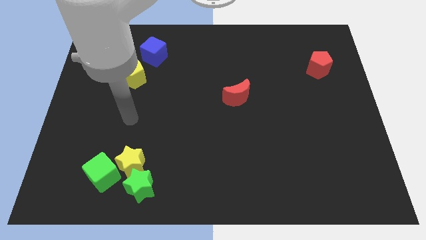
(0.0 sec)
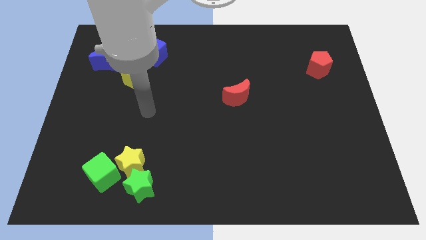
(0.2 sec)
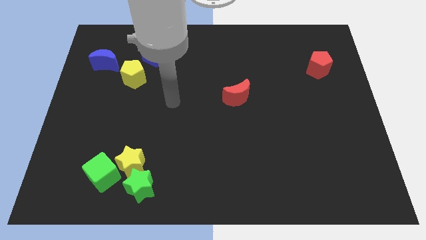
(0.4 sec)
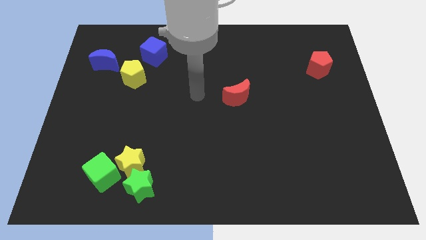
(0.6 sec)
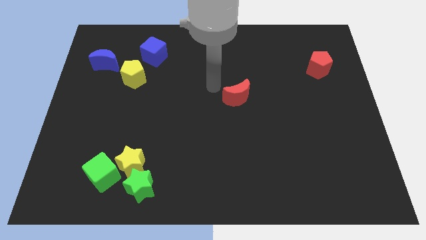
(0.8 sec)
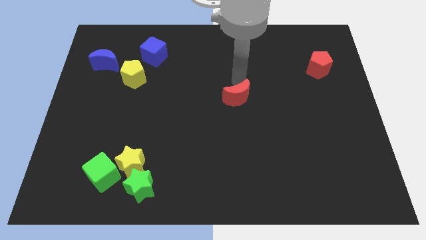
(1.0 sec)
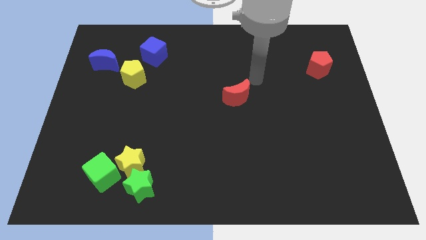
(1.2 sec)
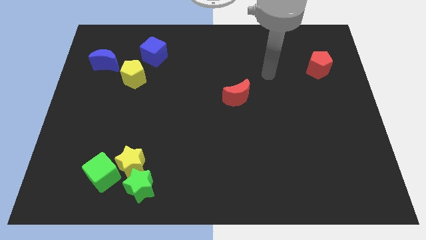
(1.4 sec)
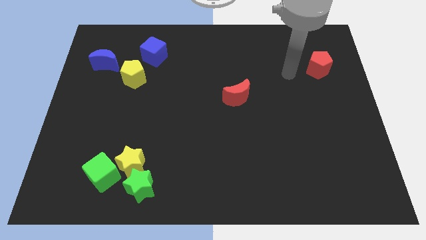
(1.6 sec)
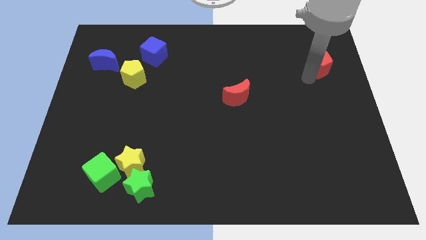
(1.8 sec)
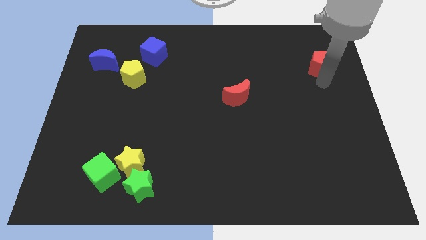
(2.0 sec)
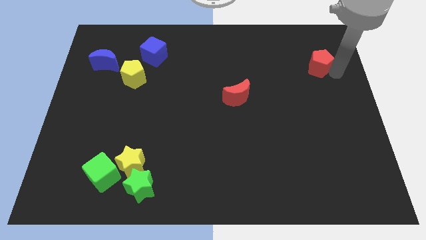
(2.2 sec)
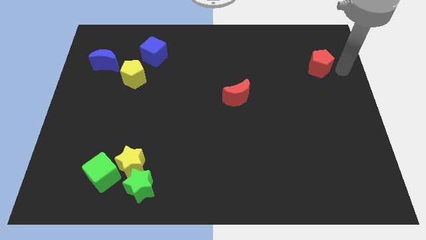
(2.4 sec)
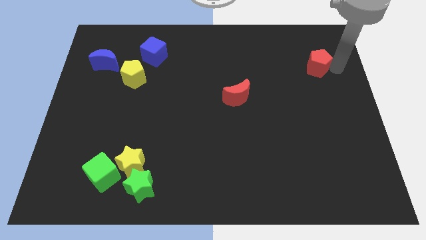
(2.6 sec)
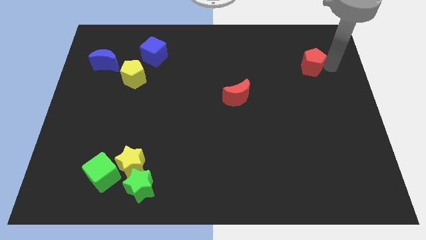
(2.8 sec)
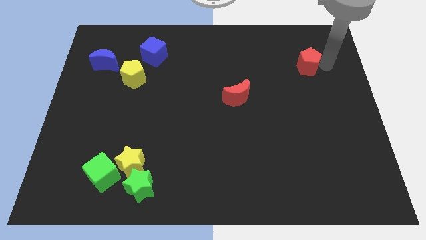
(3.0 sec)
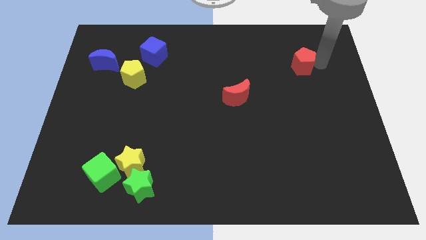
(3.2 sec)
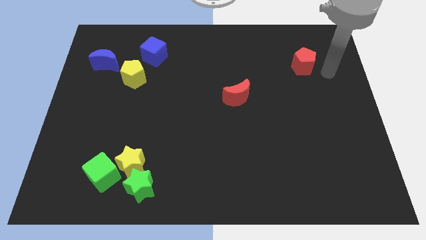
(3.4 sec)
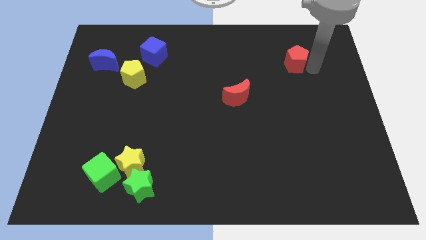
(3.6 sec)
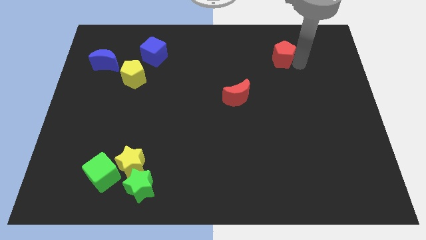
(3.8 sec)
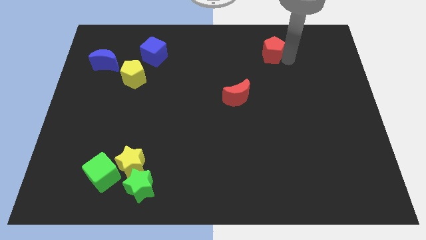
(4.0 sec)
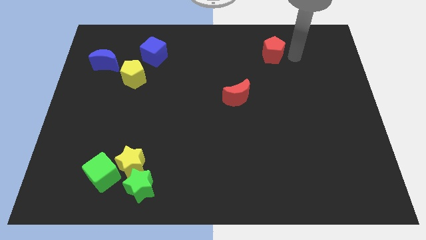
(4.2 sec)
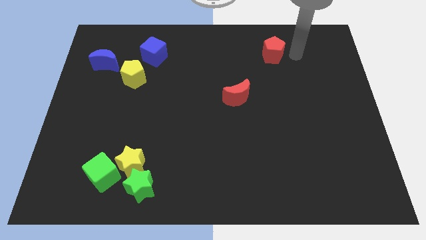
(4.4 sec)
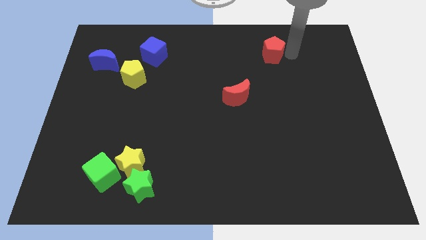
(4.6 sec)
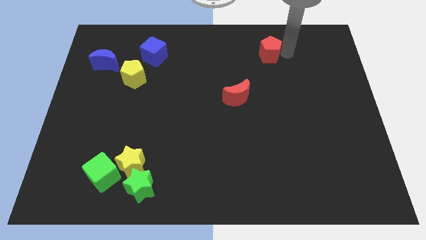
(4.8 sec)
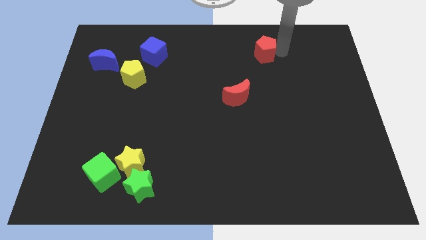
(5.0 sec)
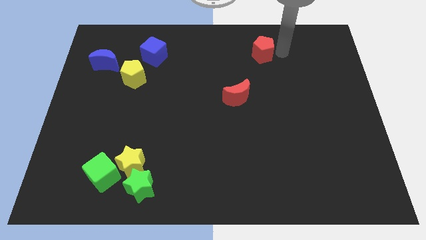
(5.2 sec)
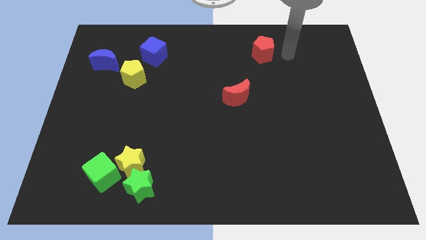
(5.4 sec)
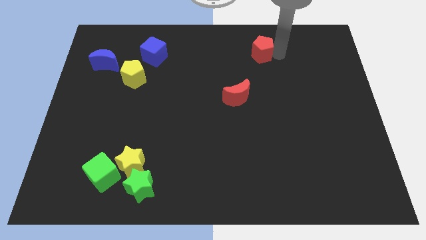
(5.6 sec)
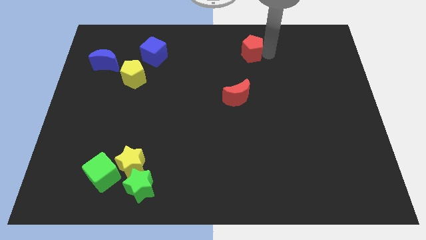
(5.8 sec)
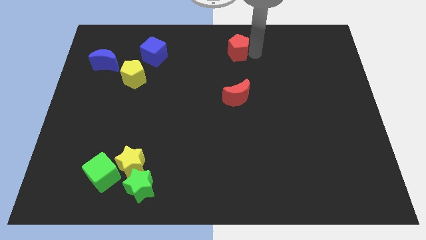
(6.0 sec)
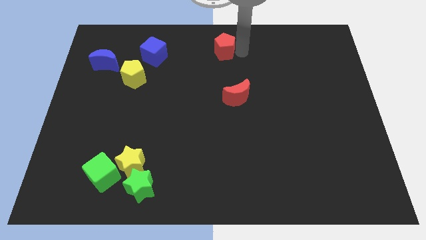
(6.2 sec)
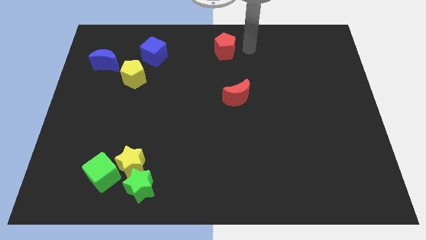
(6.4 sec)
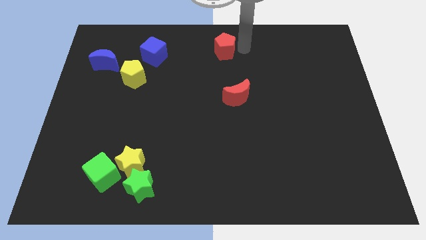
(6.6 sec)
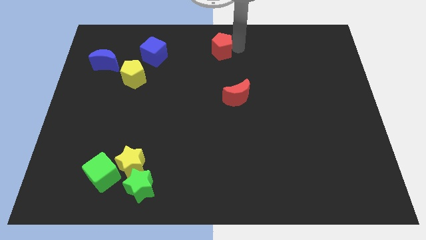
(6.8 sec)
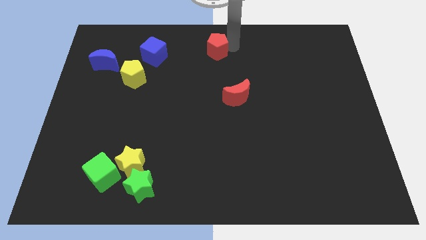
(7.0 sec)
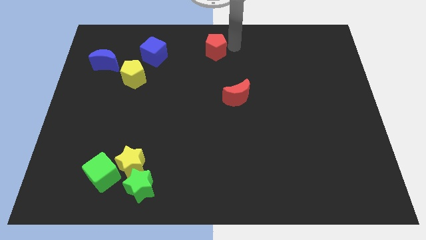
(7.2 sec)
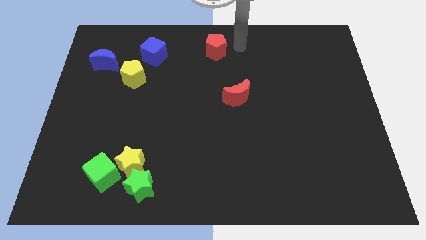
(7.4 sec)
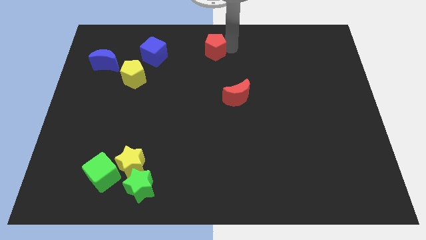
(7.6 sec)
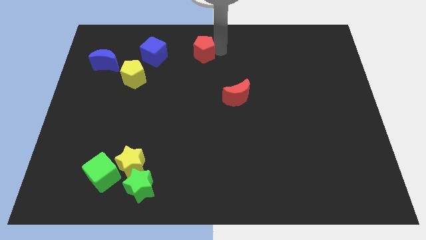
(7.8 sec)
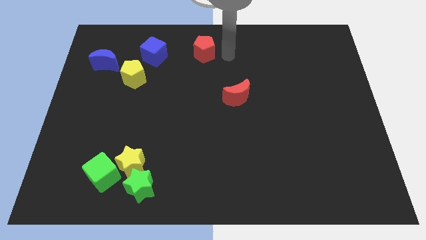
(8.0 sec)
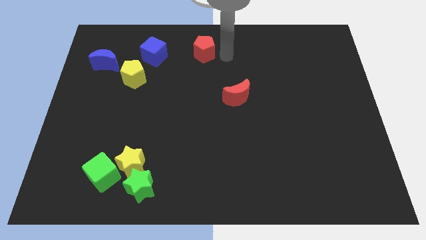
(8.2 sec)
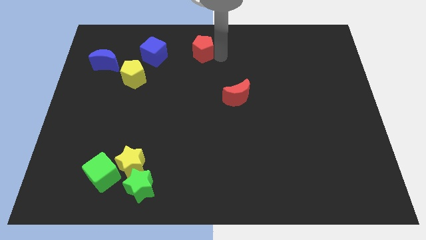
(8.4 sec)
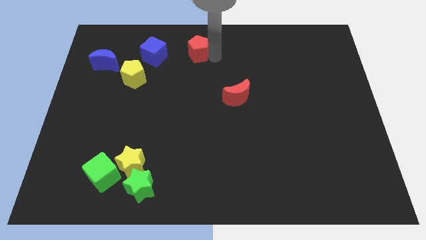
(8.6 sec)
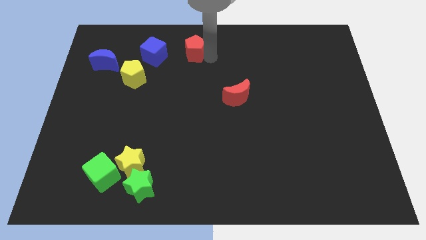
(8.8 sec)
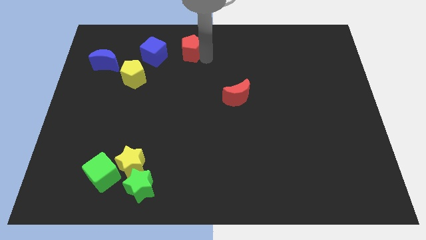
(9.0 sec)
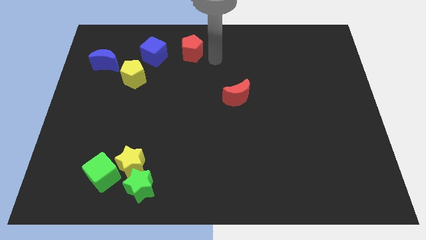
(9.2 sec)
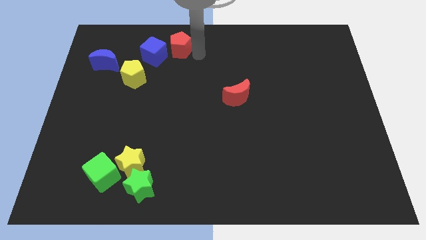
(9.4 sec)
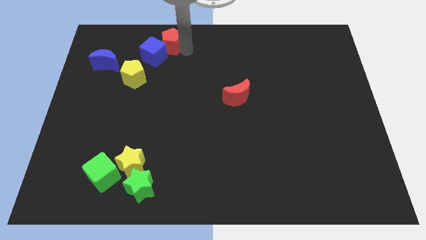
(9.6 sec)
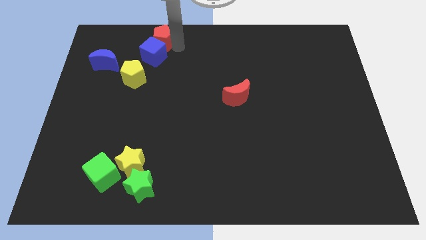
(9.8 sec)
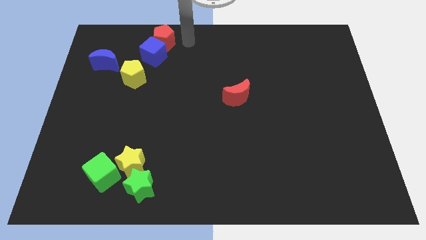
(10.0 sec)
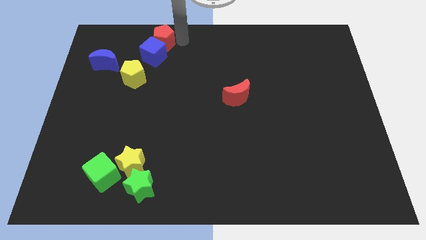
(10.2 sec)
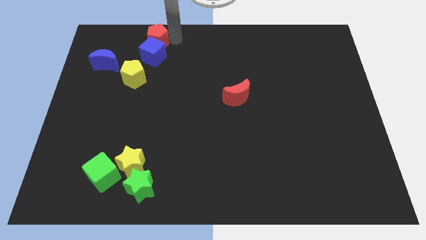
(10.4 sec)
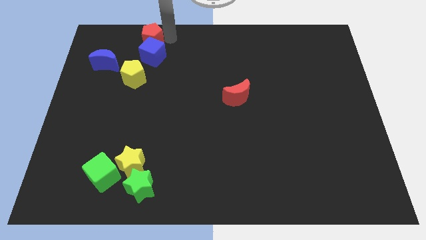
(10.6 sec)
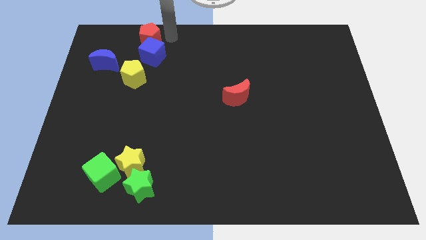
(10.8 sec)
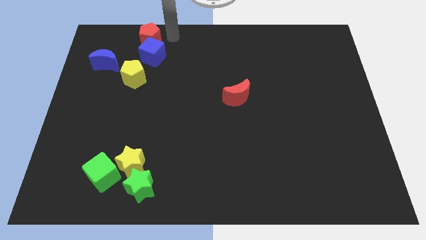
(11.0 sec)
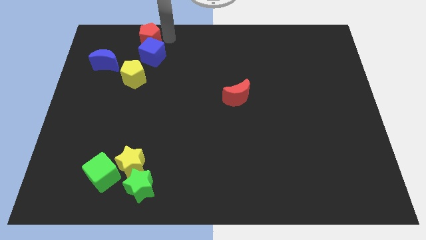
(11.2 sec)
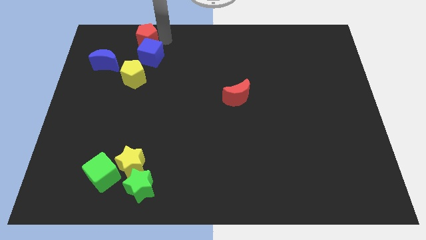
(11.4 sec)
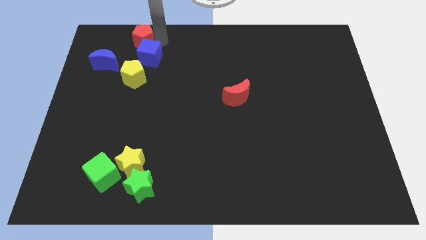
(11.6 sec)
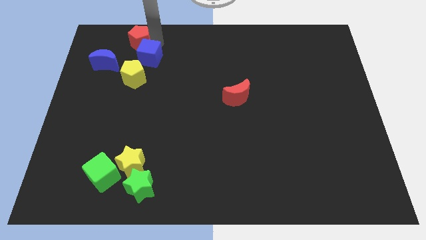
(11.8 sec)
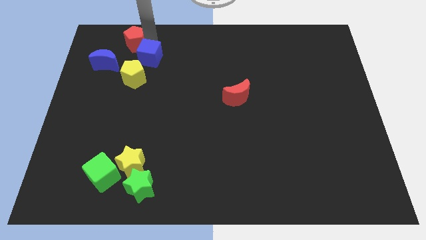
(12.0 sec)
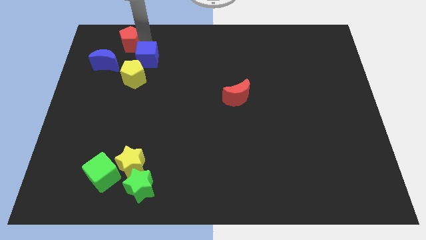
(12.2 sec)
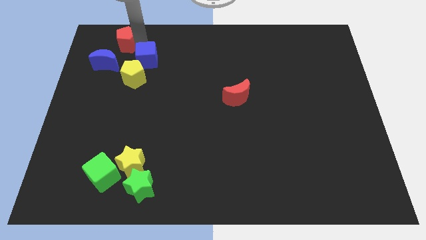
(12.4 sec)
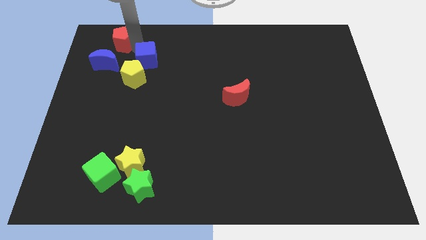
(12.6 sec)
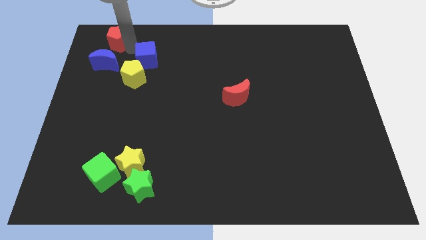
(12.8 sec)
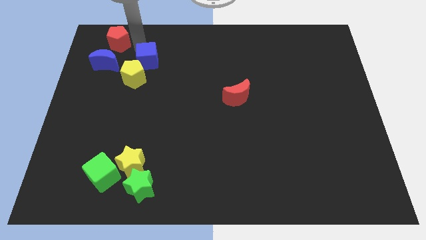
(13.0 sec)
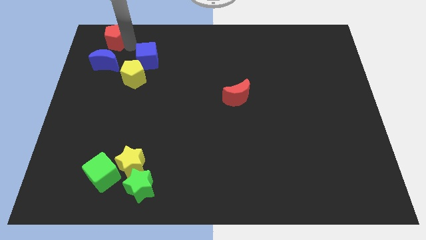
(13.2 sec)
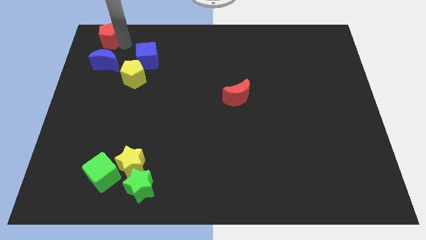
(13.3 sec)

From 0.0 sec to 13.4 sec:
move the red pentagon to the upper left corner

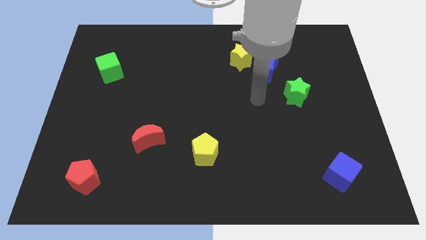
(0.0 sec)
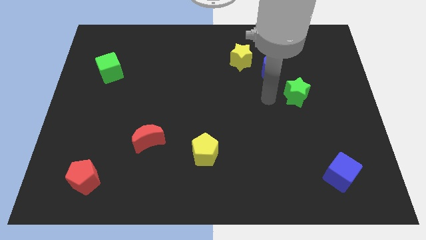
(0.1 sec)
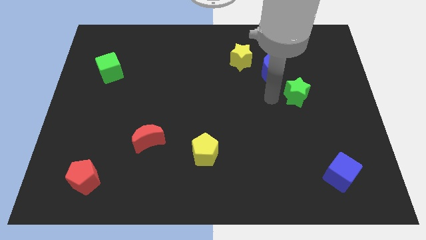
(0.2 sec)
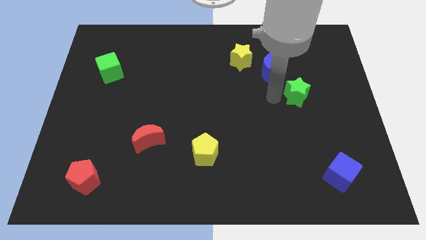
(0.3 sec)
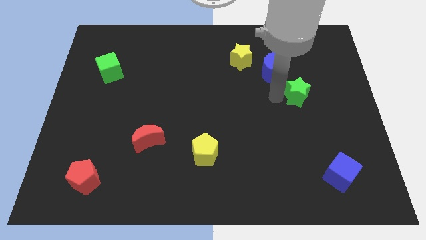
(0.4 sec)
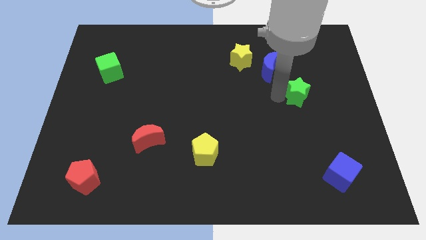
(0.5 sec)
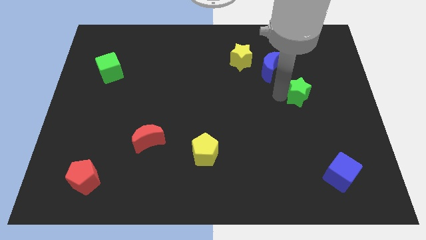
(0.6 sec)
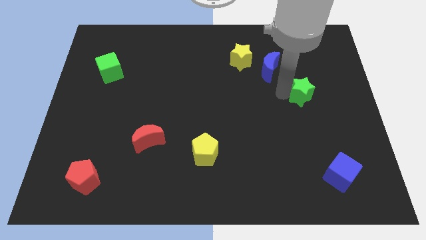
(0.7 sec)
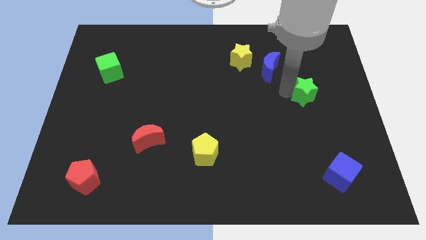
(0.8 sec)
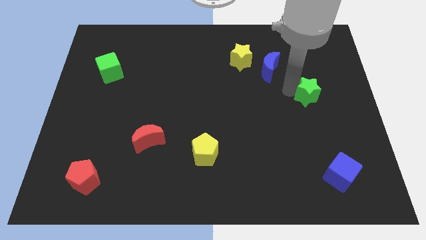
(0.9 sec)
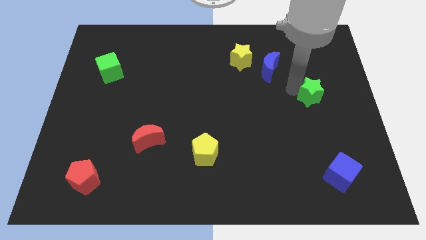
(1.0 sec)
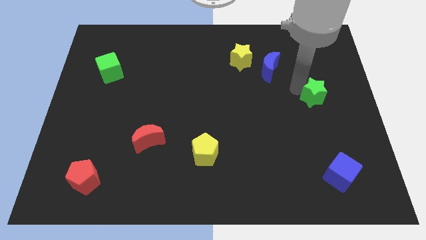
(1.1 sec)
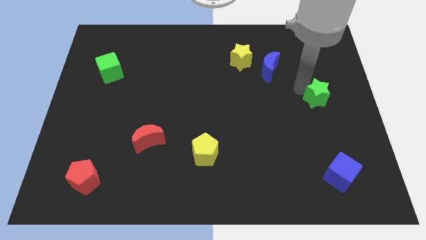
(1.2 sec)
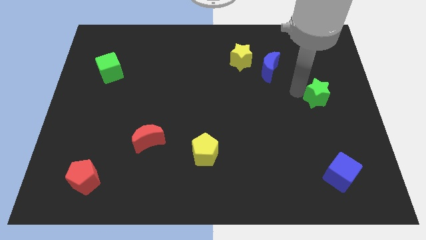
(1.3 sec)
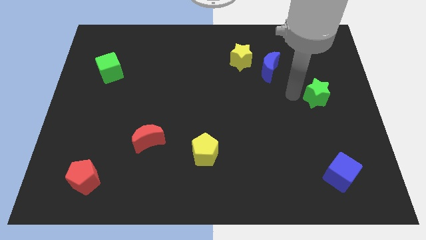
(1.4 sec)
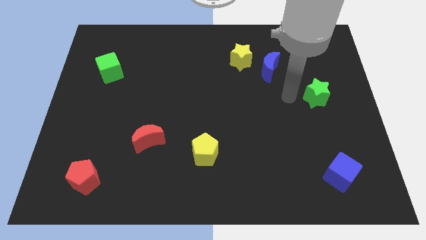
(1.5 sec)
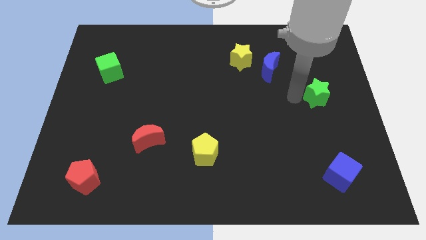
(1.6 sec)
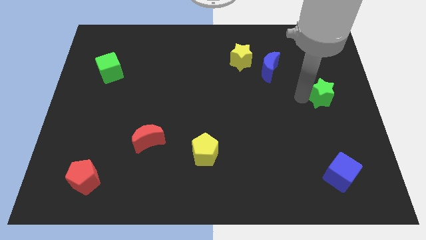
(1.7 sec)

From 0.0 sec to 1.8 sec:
move the green star to the right side of the board
